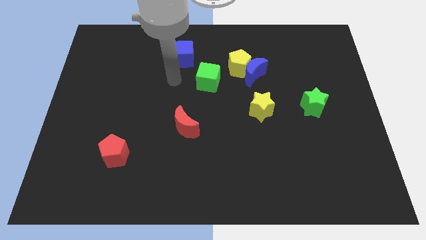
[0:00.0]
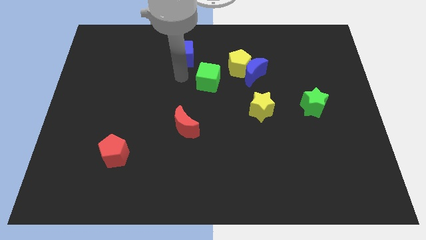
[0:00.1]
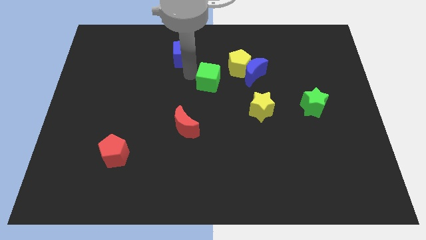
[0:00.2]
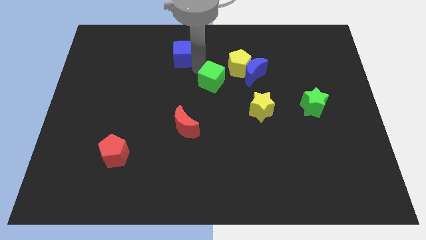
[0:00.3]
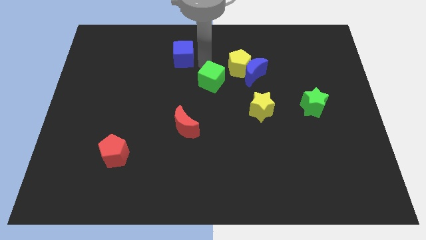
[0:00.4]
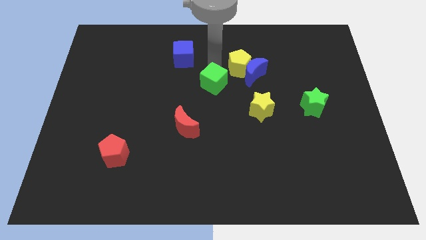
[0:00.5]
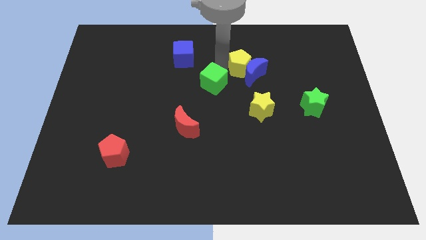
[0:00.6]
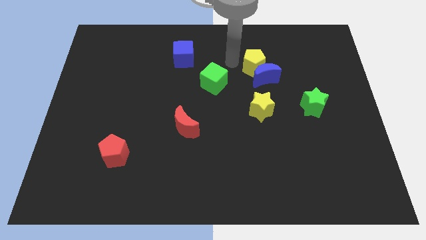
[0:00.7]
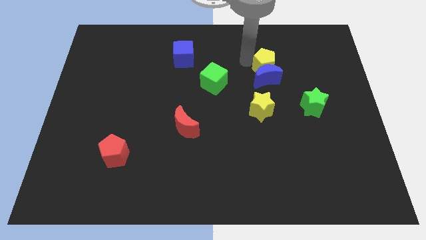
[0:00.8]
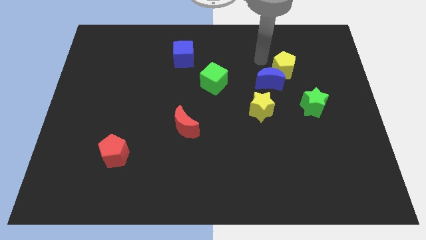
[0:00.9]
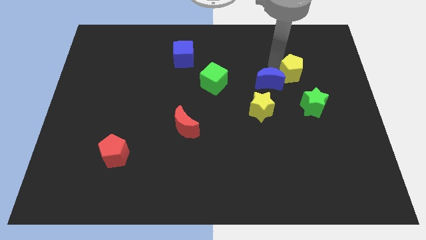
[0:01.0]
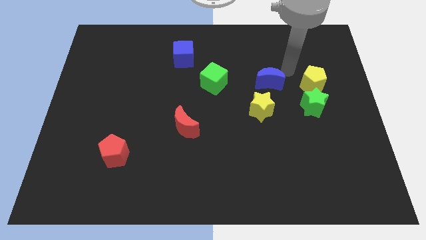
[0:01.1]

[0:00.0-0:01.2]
separate the blue moon from the yellow pentagon

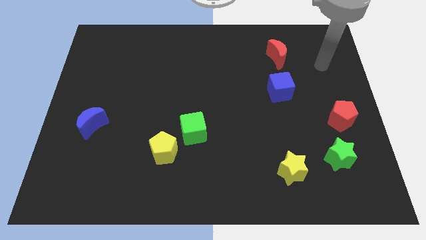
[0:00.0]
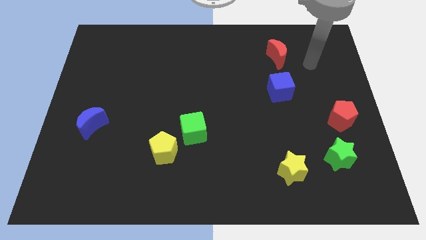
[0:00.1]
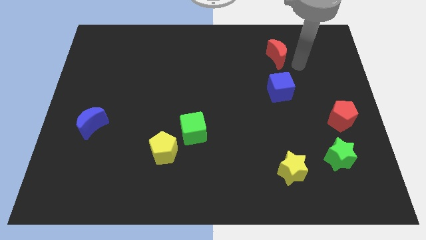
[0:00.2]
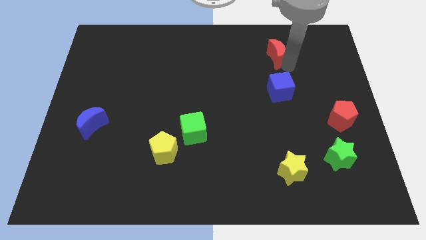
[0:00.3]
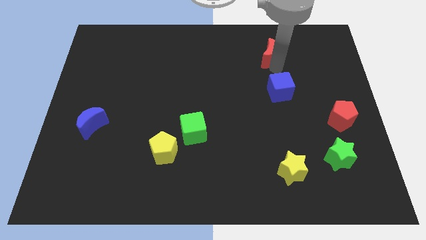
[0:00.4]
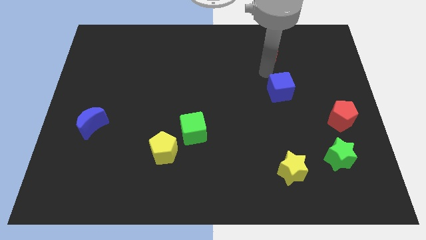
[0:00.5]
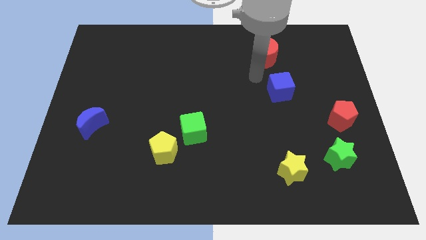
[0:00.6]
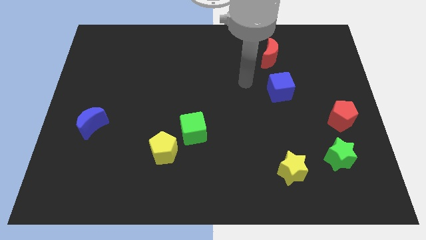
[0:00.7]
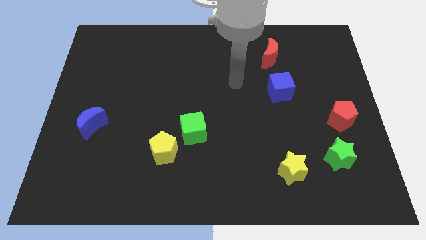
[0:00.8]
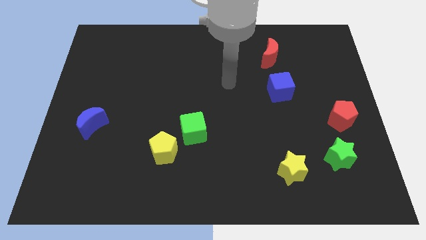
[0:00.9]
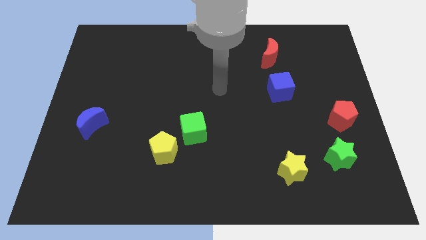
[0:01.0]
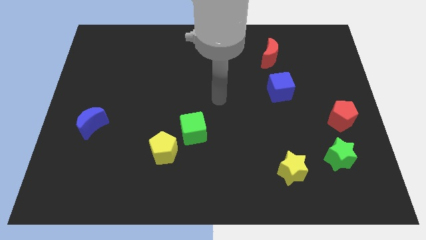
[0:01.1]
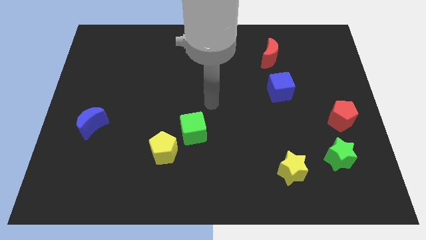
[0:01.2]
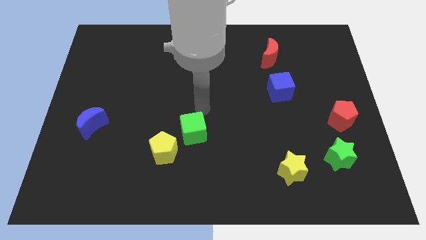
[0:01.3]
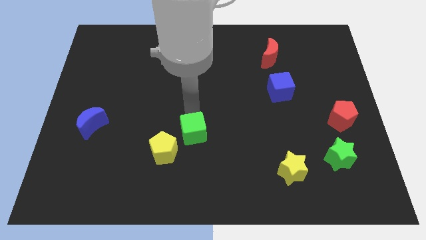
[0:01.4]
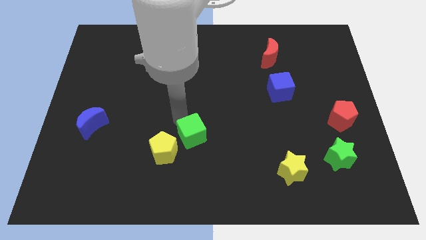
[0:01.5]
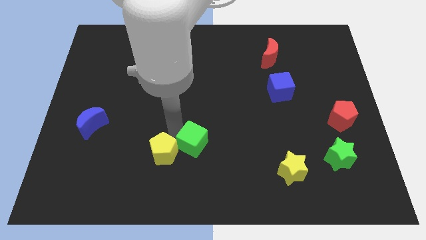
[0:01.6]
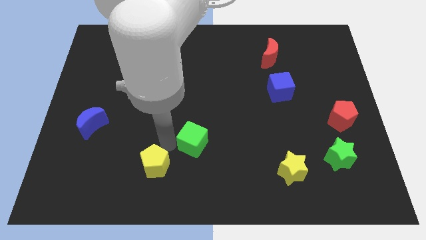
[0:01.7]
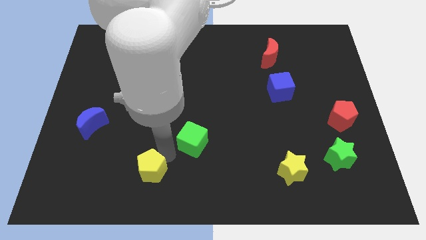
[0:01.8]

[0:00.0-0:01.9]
separate the green cube from the yellow pentagon

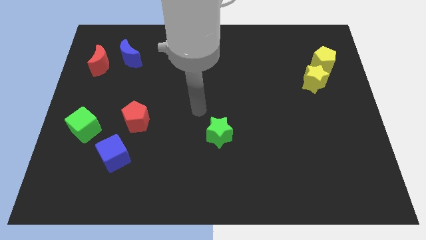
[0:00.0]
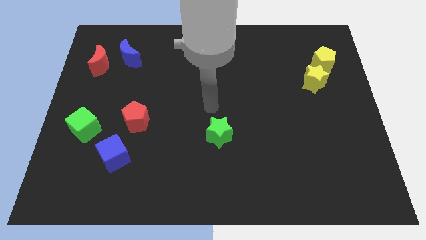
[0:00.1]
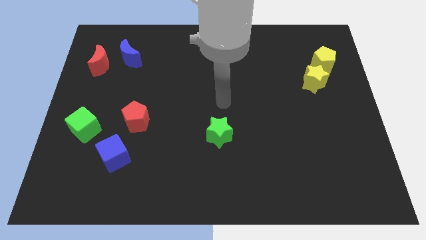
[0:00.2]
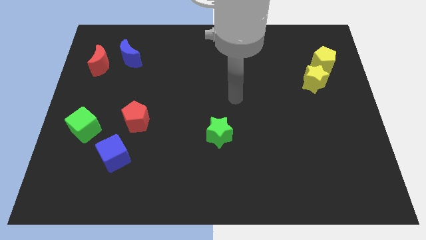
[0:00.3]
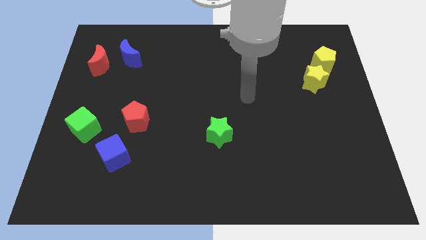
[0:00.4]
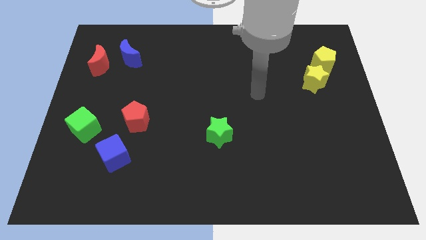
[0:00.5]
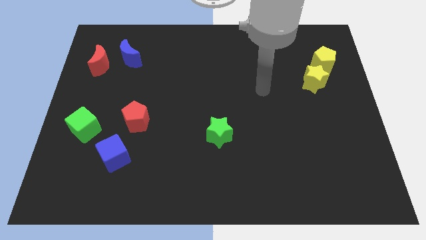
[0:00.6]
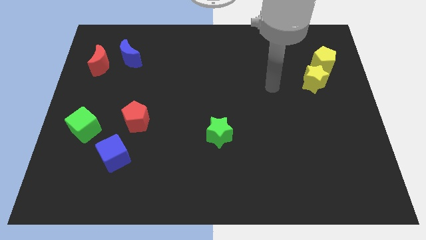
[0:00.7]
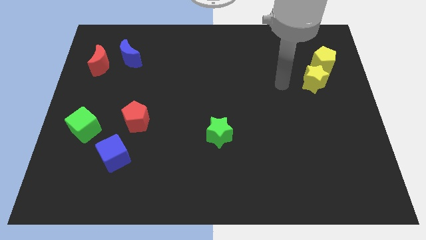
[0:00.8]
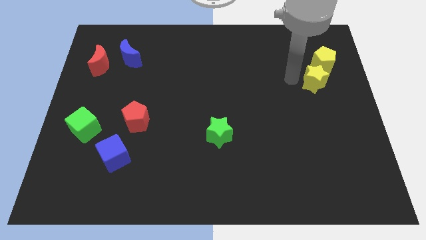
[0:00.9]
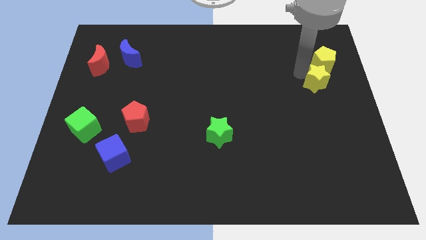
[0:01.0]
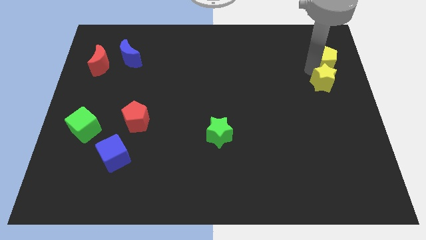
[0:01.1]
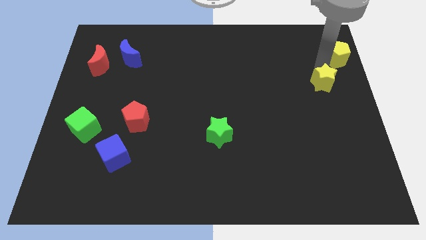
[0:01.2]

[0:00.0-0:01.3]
separate the yellow star from the yellow pentagon

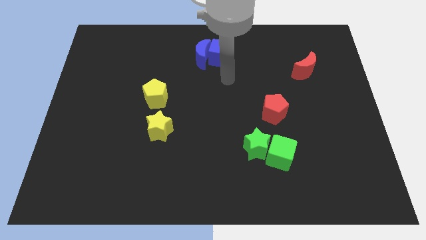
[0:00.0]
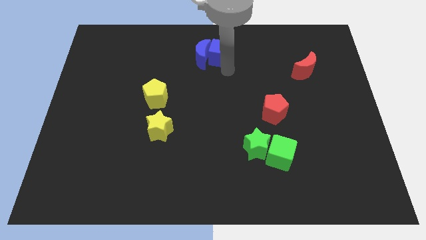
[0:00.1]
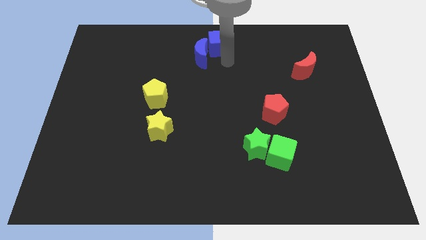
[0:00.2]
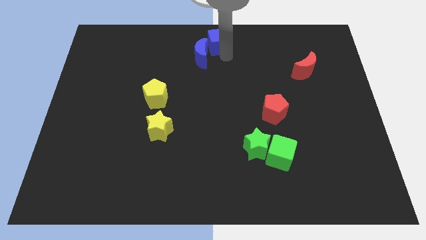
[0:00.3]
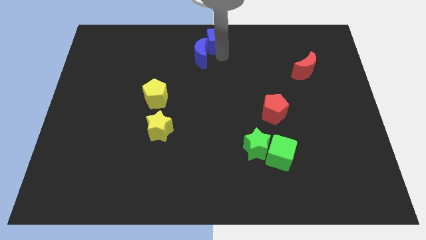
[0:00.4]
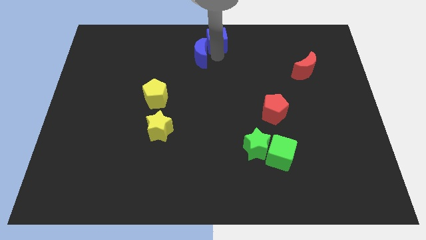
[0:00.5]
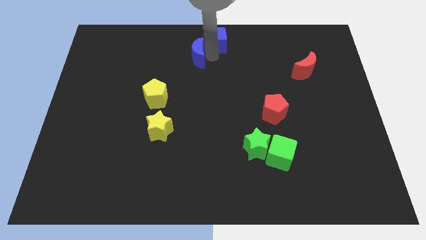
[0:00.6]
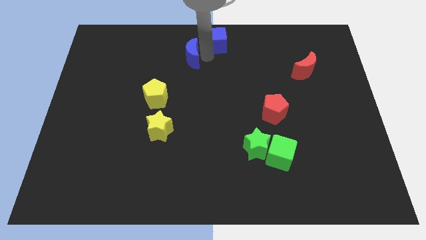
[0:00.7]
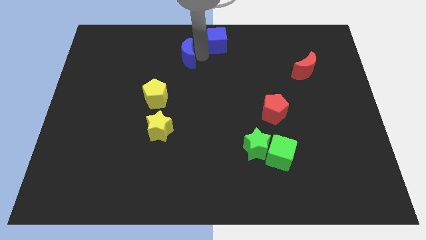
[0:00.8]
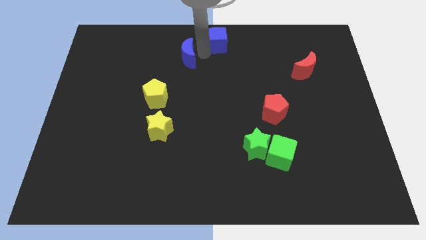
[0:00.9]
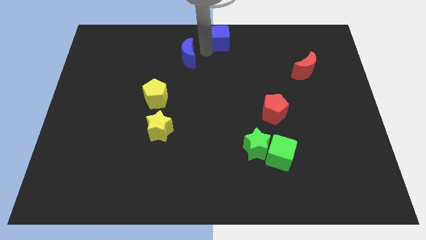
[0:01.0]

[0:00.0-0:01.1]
pull the blue moon apart from the blue cube

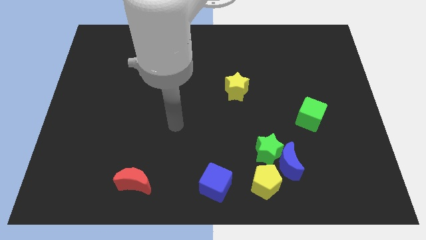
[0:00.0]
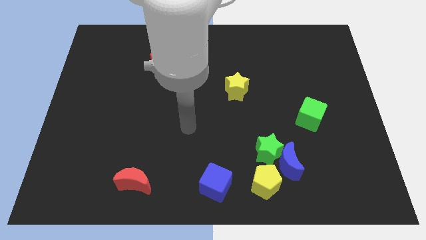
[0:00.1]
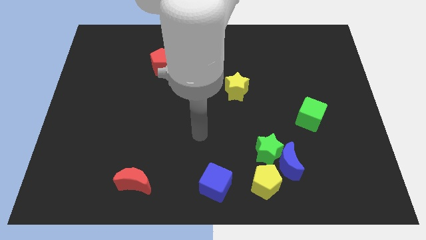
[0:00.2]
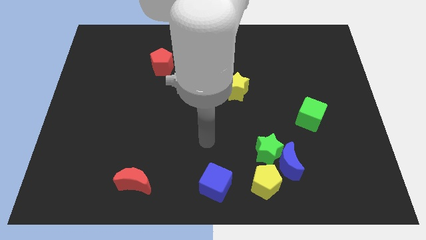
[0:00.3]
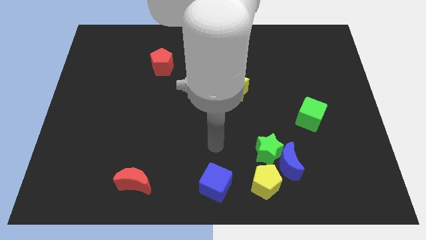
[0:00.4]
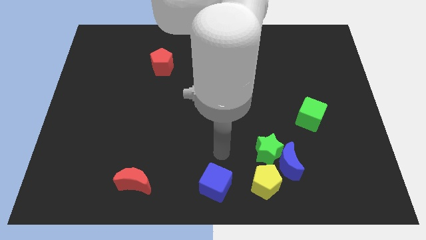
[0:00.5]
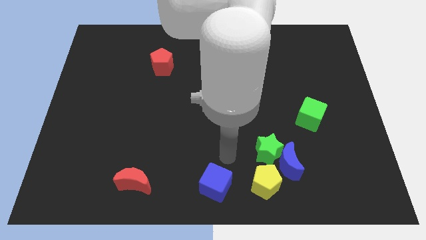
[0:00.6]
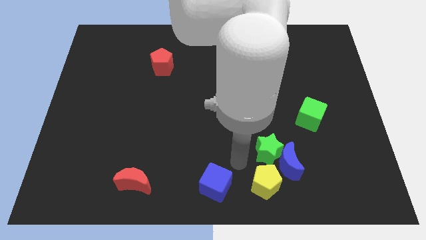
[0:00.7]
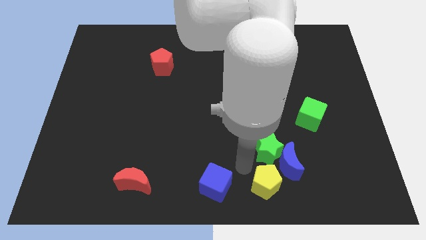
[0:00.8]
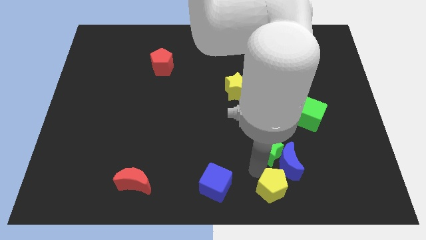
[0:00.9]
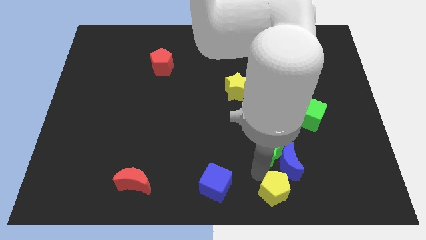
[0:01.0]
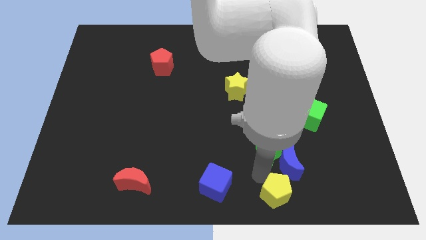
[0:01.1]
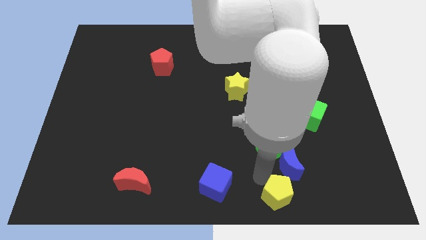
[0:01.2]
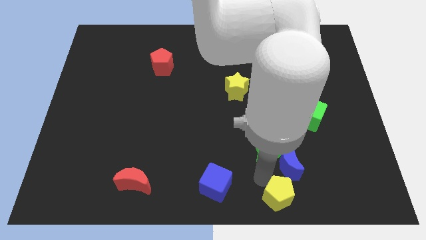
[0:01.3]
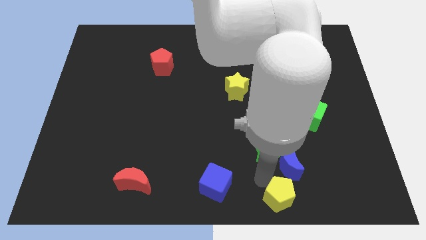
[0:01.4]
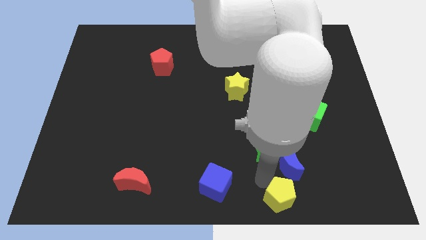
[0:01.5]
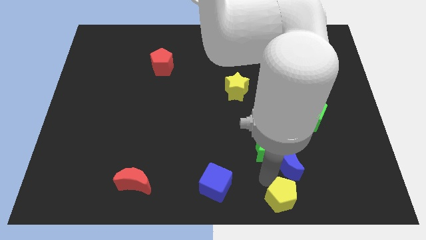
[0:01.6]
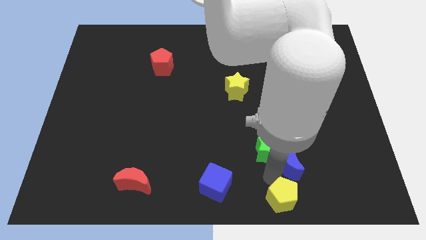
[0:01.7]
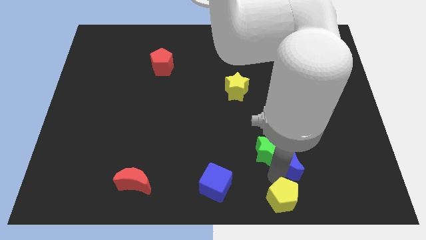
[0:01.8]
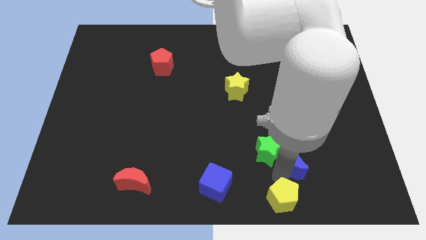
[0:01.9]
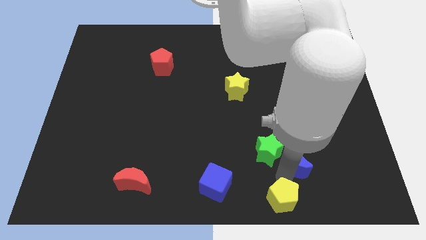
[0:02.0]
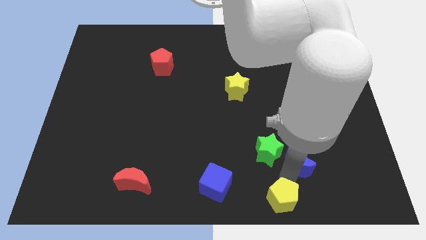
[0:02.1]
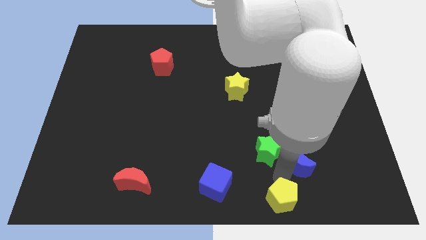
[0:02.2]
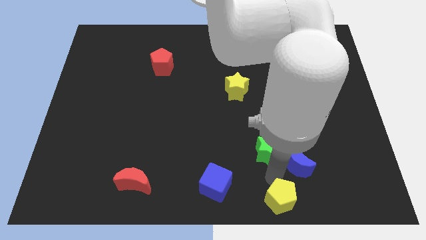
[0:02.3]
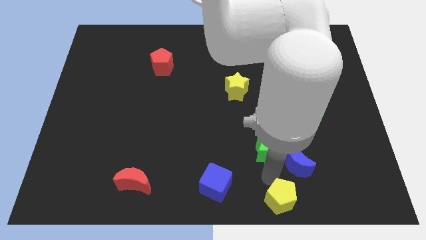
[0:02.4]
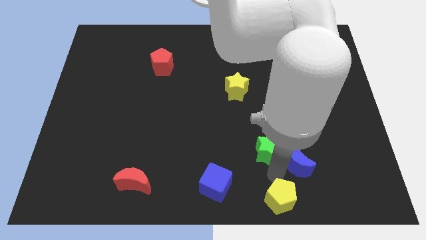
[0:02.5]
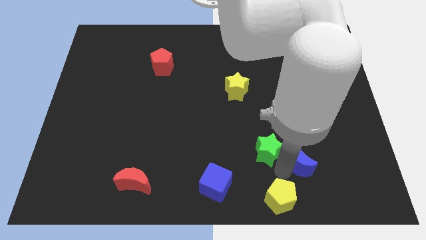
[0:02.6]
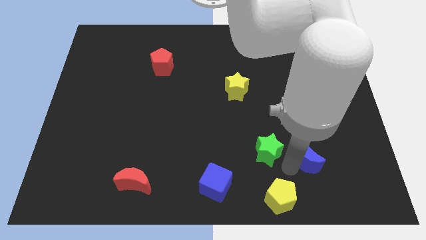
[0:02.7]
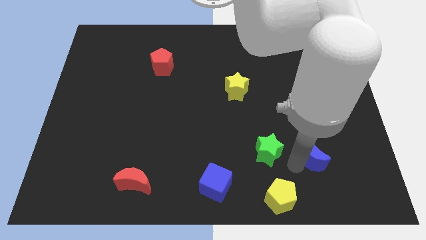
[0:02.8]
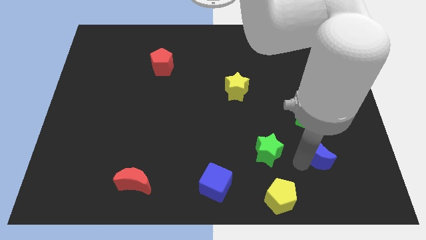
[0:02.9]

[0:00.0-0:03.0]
pull the blue moon apart from the green star and yellow pentagon

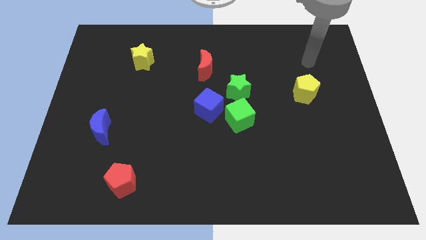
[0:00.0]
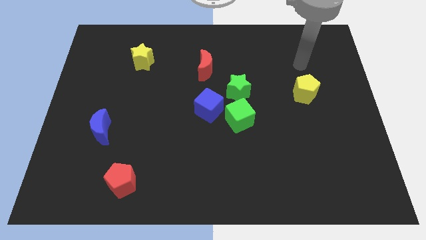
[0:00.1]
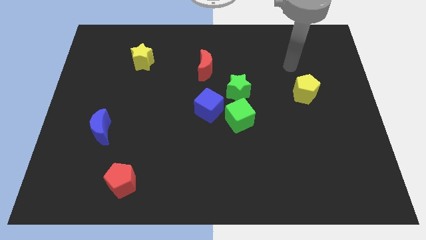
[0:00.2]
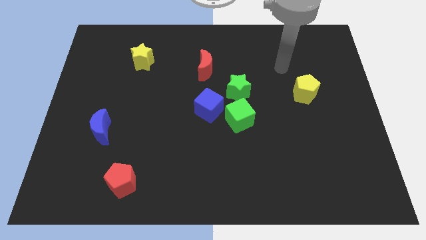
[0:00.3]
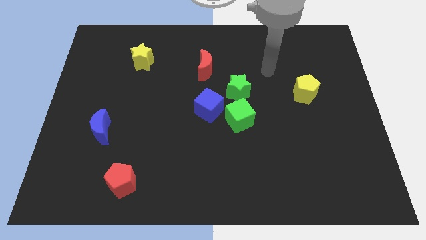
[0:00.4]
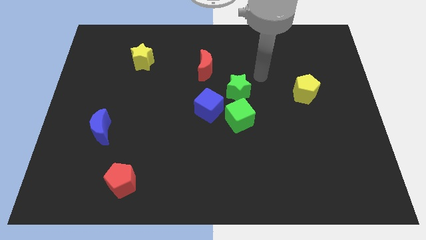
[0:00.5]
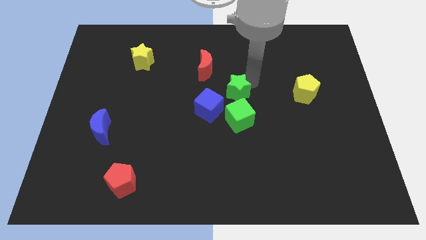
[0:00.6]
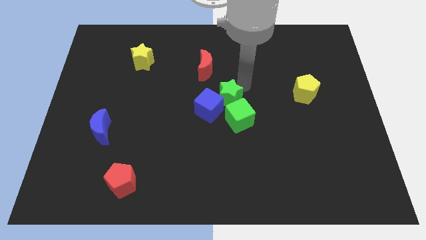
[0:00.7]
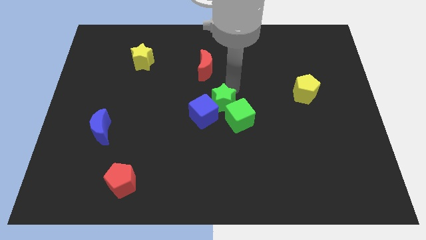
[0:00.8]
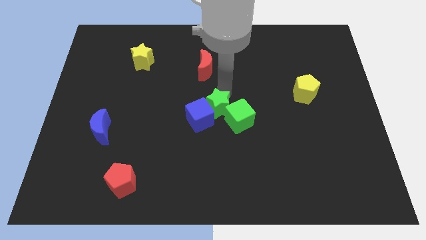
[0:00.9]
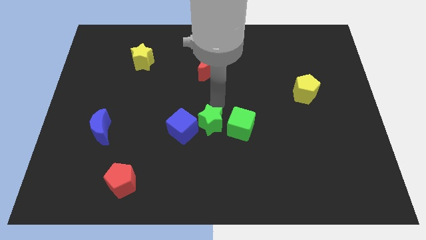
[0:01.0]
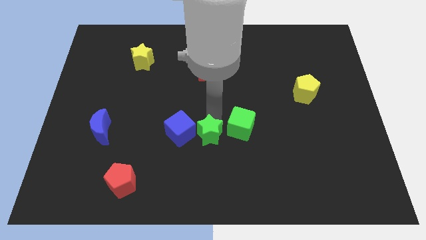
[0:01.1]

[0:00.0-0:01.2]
move the green cube away from the blue cube and green star
